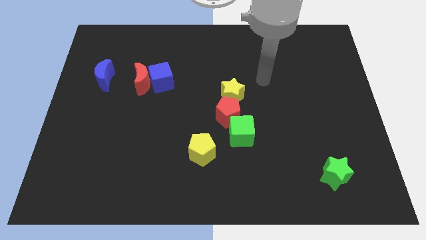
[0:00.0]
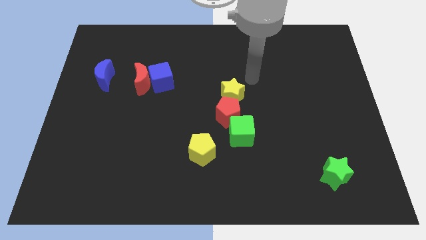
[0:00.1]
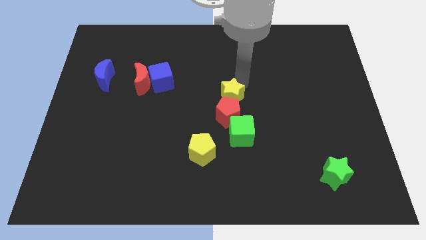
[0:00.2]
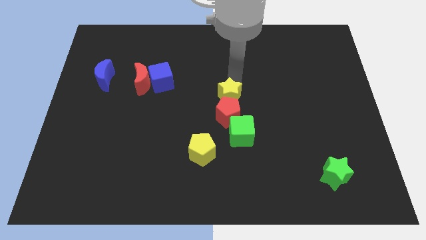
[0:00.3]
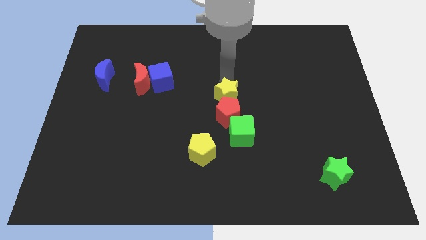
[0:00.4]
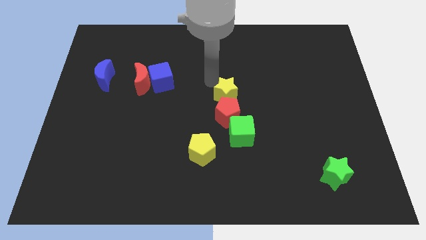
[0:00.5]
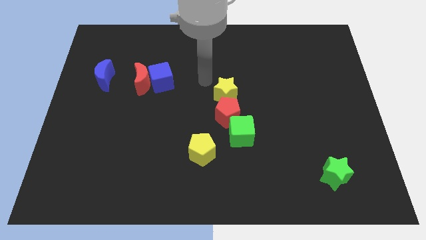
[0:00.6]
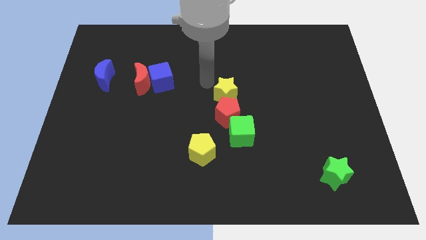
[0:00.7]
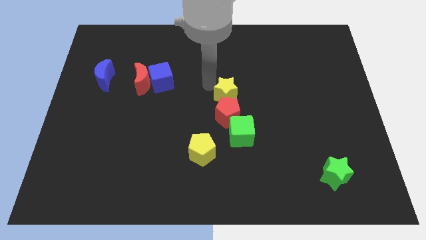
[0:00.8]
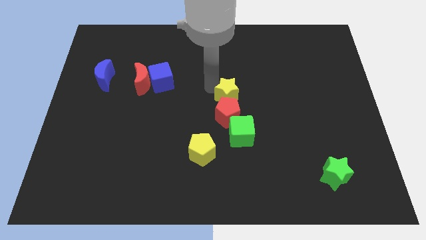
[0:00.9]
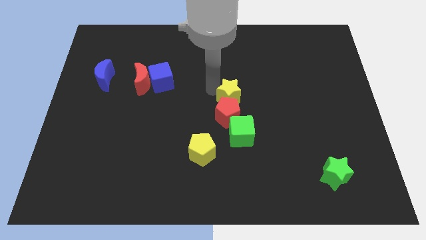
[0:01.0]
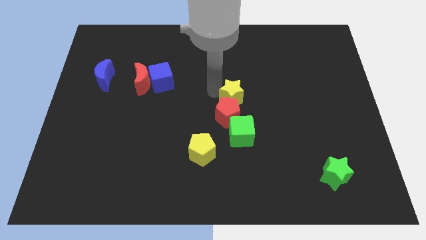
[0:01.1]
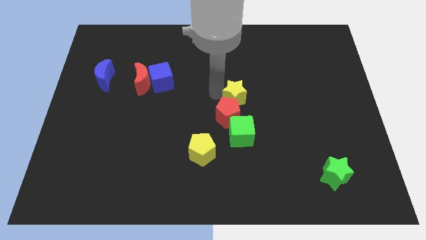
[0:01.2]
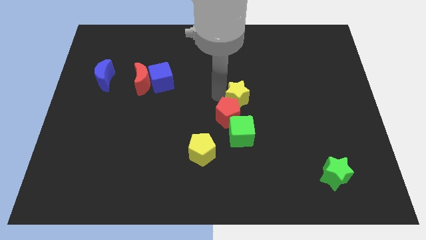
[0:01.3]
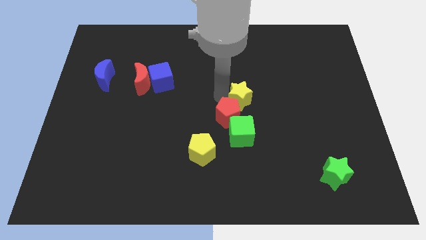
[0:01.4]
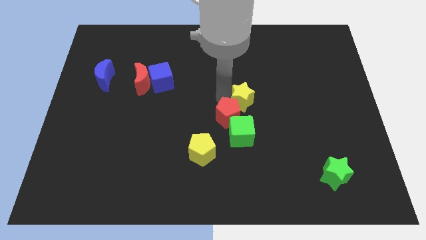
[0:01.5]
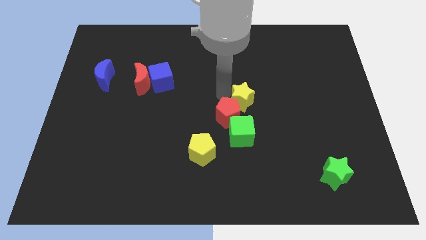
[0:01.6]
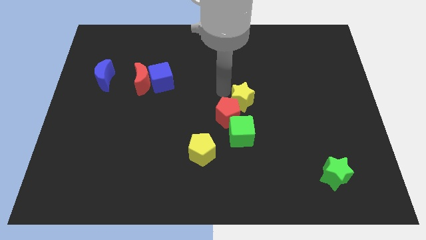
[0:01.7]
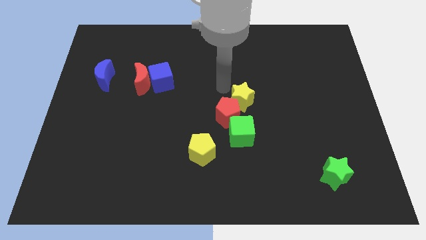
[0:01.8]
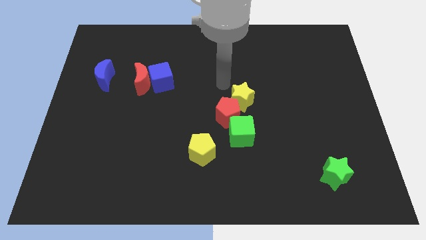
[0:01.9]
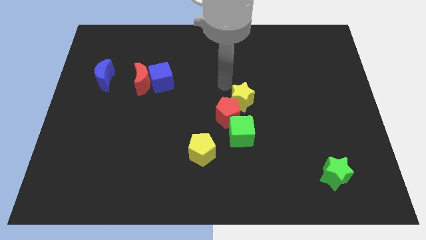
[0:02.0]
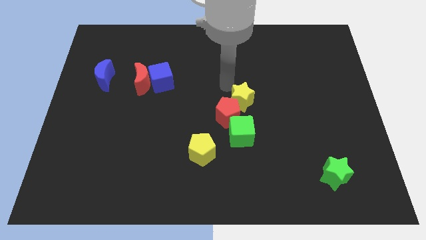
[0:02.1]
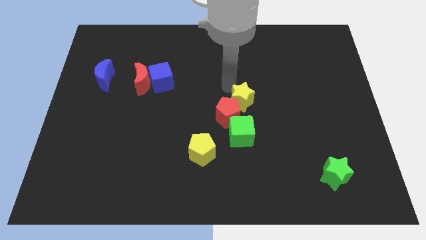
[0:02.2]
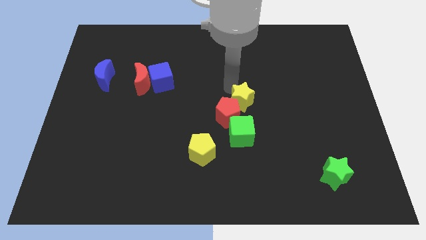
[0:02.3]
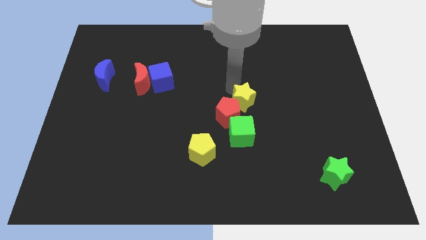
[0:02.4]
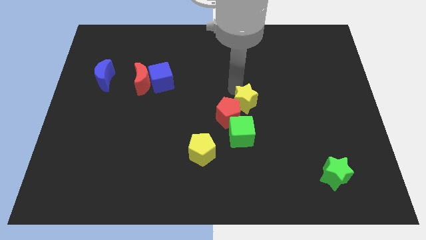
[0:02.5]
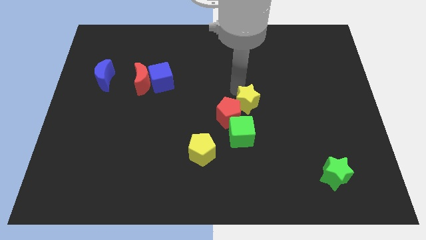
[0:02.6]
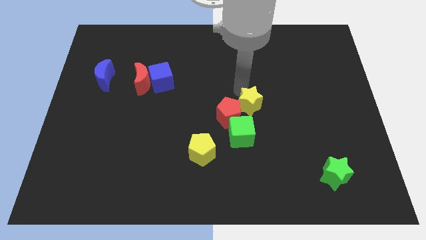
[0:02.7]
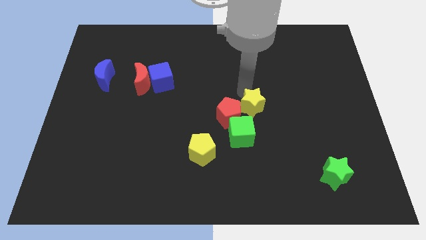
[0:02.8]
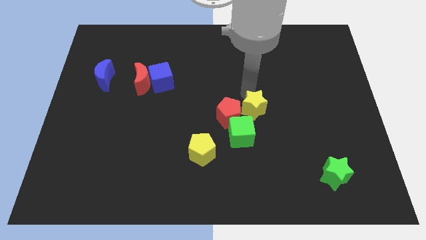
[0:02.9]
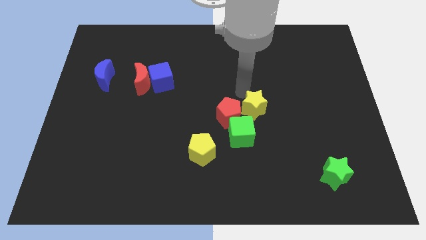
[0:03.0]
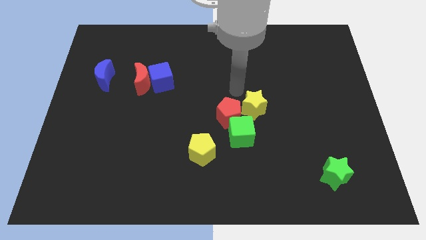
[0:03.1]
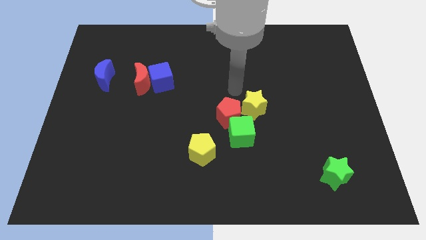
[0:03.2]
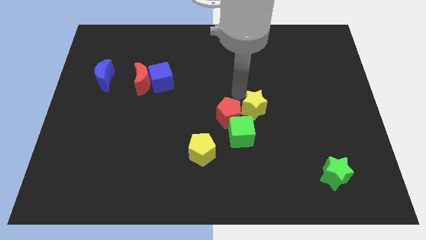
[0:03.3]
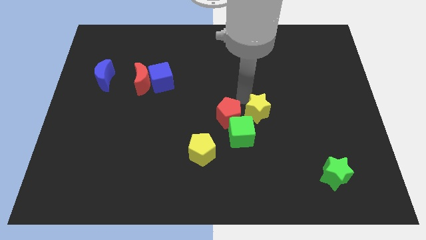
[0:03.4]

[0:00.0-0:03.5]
slide the yellow star downwards and to the right diagonally somewhat

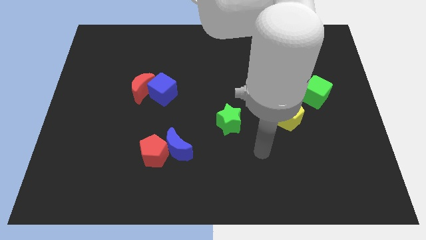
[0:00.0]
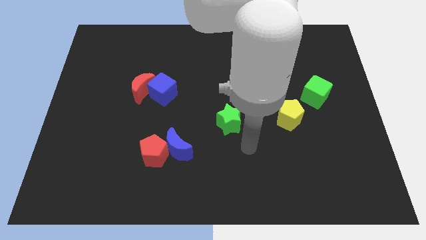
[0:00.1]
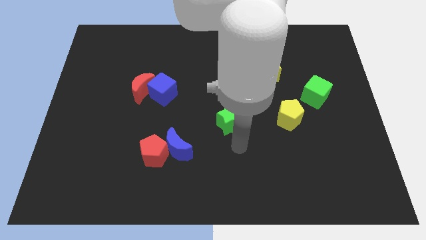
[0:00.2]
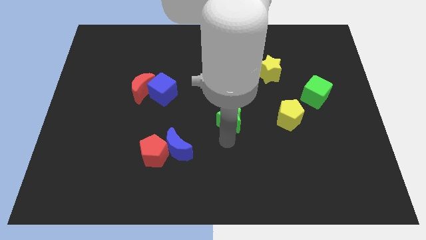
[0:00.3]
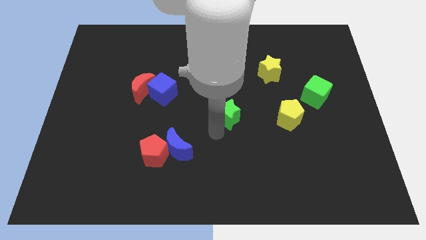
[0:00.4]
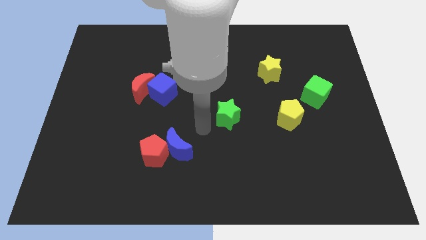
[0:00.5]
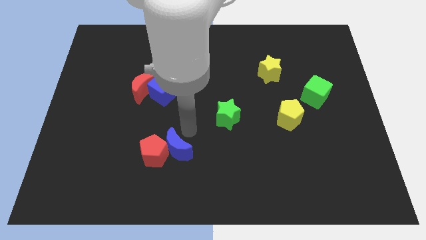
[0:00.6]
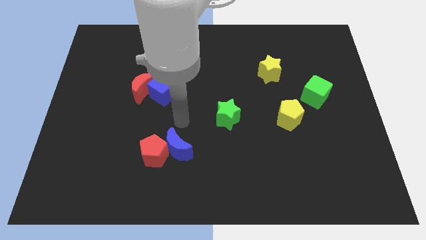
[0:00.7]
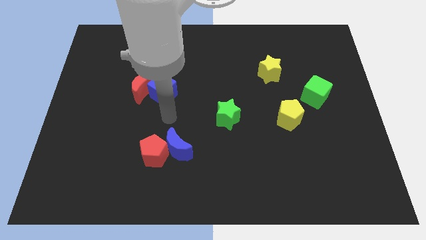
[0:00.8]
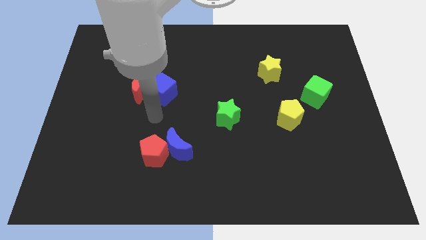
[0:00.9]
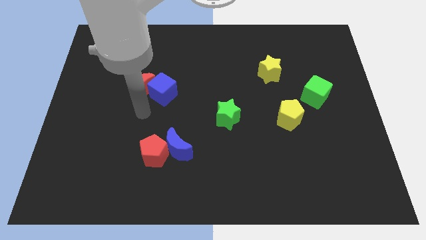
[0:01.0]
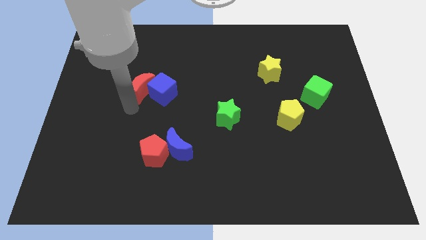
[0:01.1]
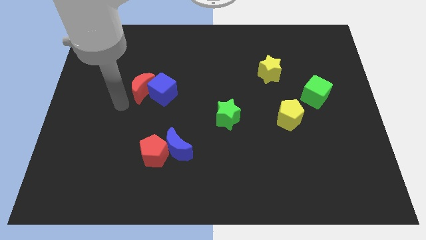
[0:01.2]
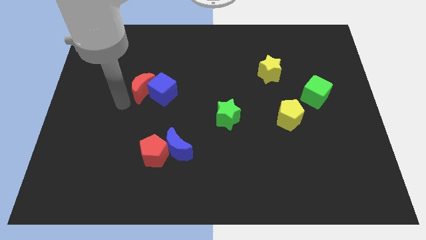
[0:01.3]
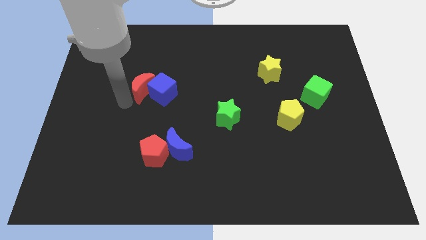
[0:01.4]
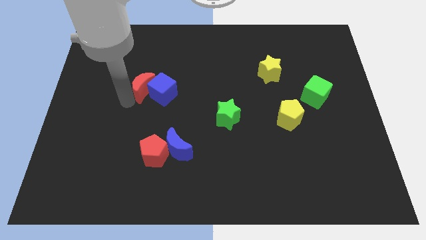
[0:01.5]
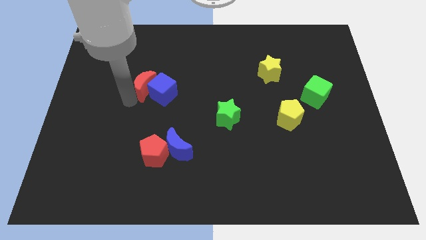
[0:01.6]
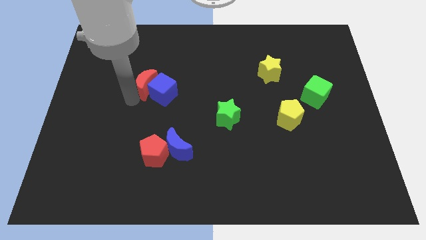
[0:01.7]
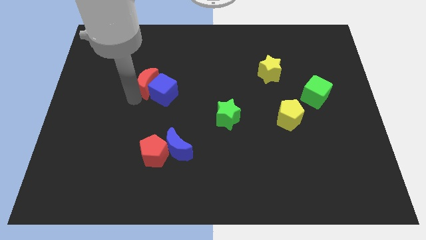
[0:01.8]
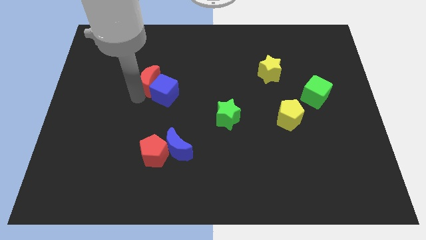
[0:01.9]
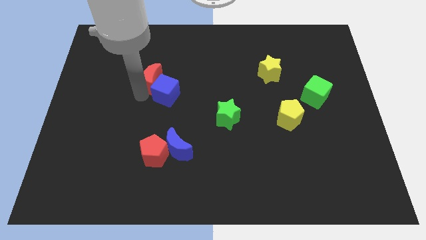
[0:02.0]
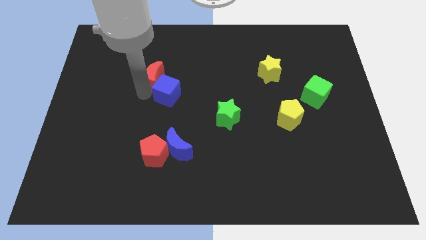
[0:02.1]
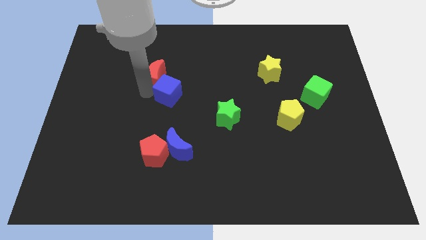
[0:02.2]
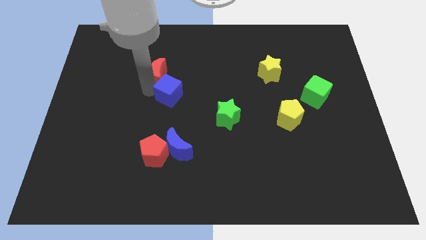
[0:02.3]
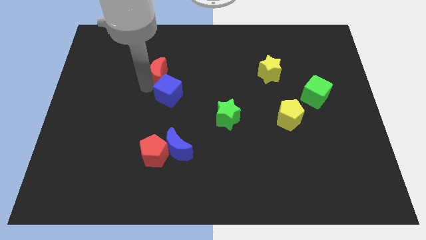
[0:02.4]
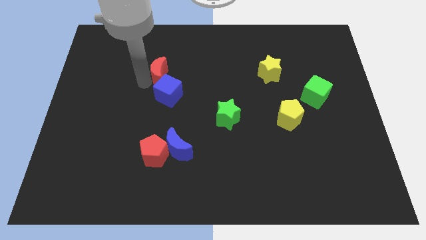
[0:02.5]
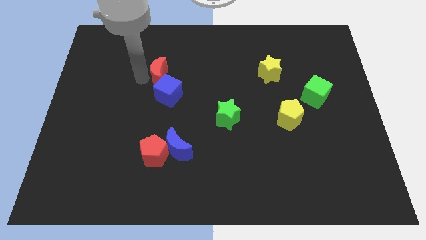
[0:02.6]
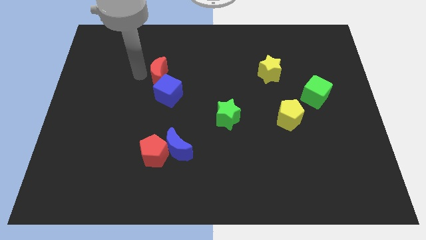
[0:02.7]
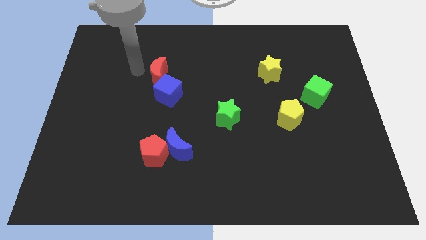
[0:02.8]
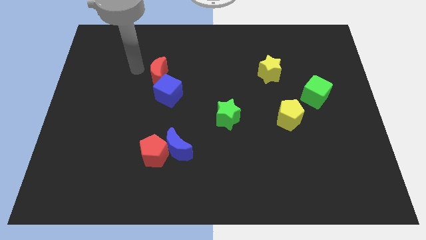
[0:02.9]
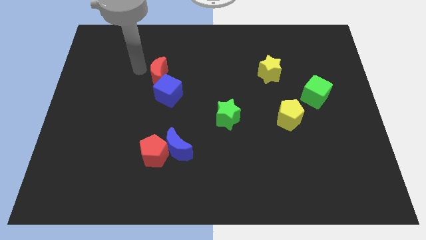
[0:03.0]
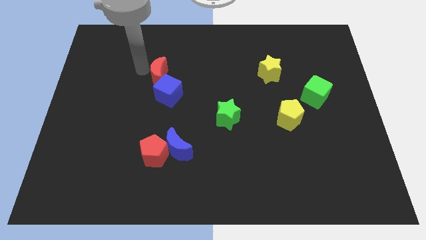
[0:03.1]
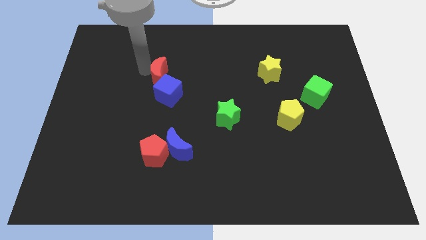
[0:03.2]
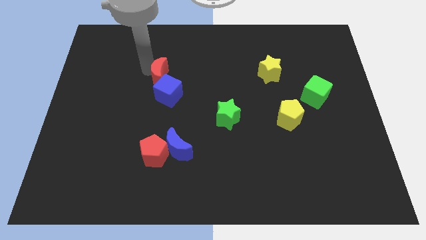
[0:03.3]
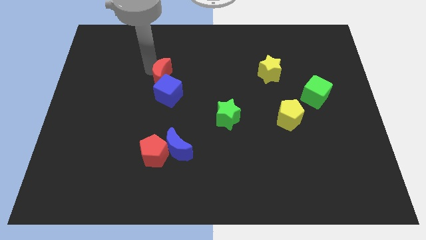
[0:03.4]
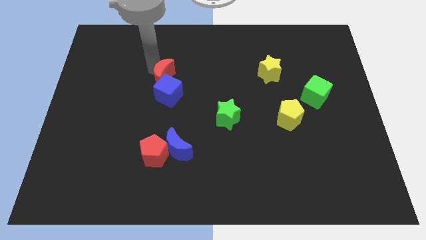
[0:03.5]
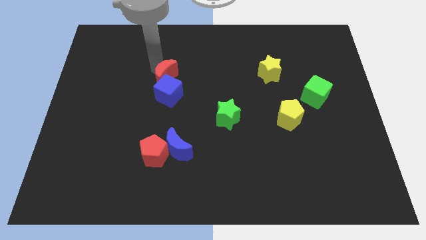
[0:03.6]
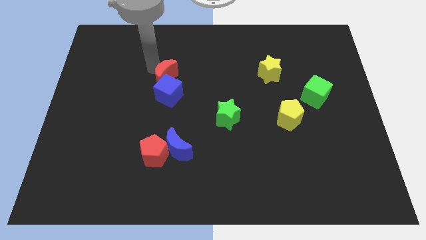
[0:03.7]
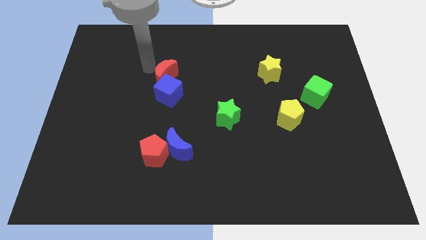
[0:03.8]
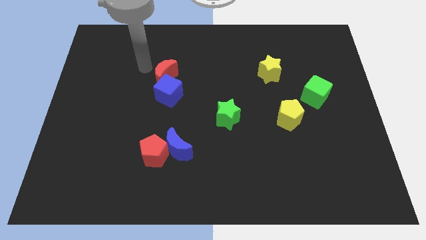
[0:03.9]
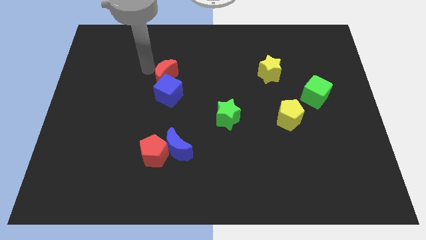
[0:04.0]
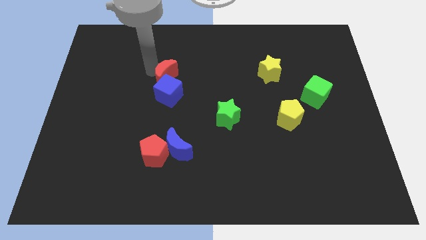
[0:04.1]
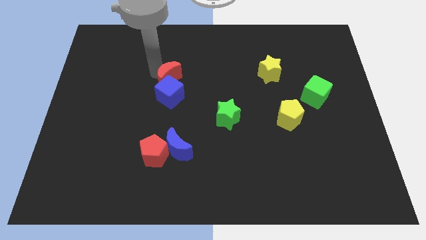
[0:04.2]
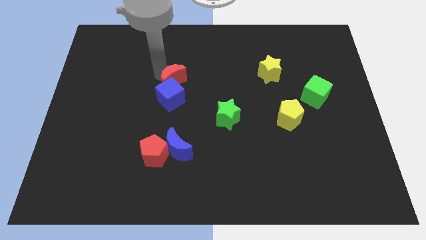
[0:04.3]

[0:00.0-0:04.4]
move the red moon right slightly

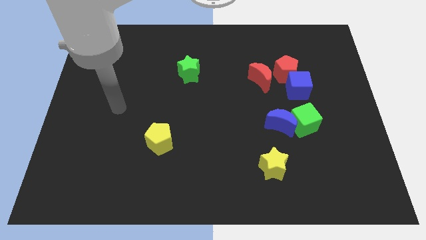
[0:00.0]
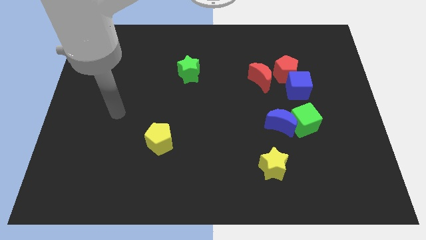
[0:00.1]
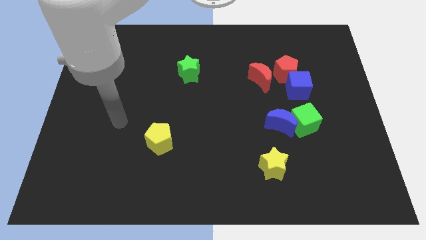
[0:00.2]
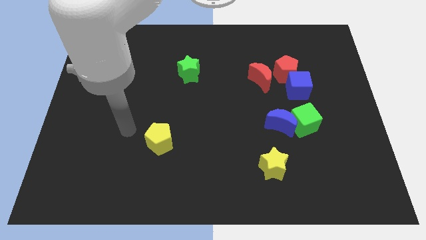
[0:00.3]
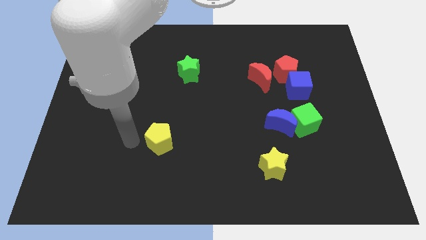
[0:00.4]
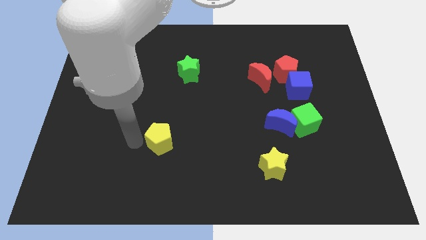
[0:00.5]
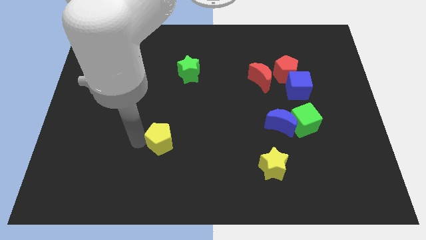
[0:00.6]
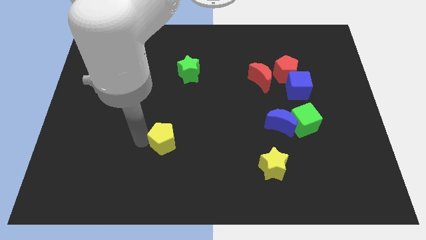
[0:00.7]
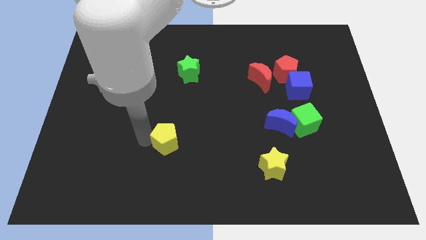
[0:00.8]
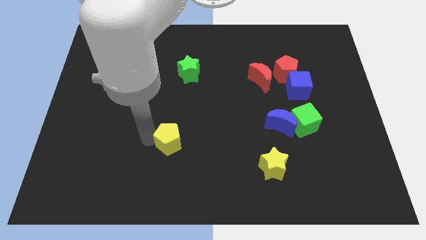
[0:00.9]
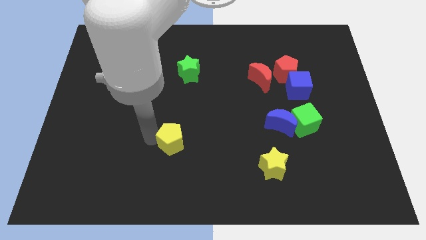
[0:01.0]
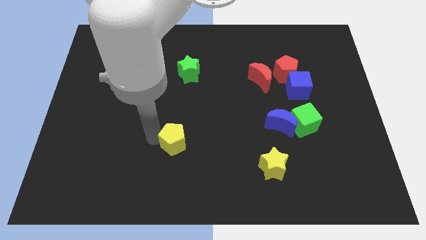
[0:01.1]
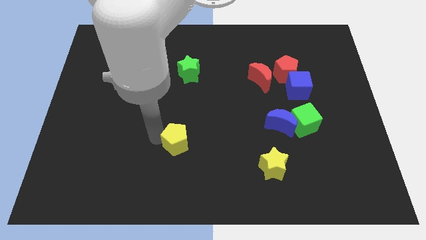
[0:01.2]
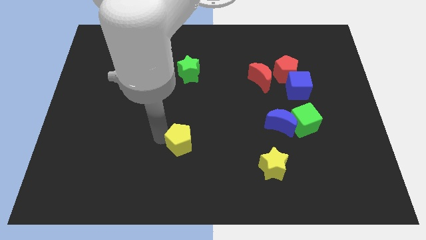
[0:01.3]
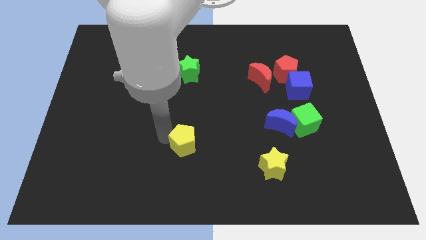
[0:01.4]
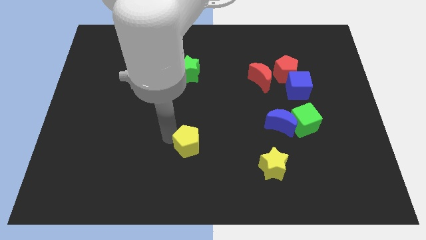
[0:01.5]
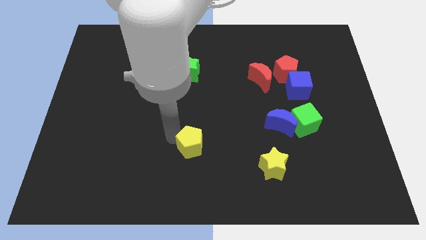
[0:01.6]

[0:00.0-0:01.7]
slightly move the yellow pentagon right
